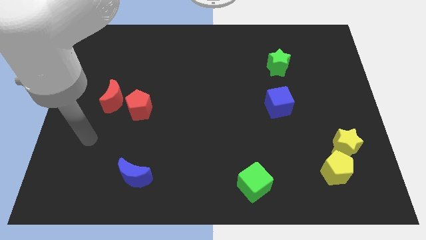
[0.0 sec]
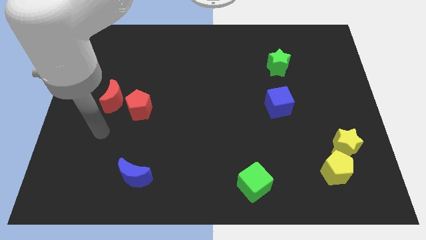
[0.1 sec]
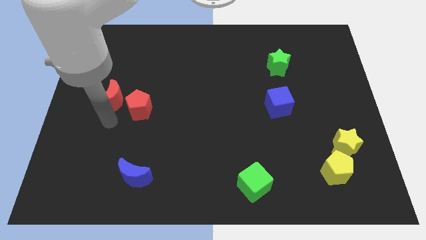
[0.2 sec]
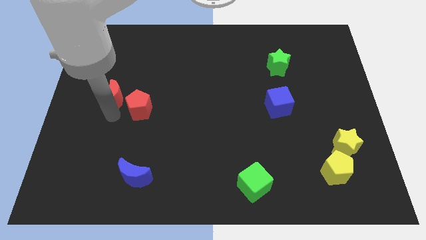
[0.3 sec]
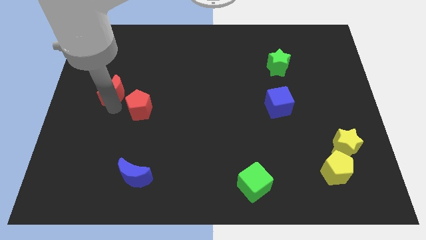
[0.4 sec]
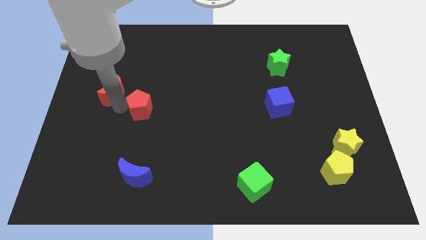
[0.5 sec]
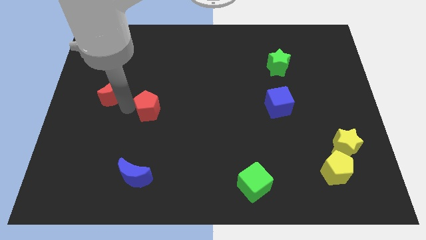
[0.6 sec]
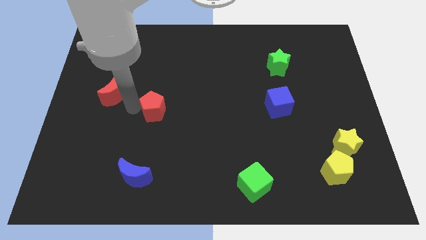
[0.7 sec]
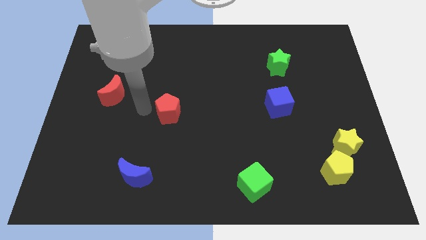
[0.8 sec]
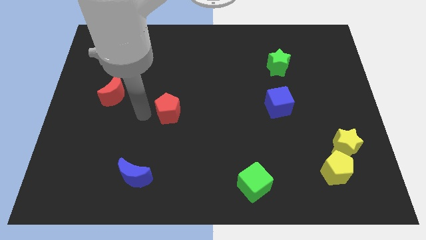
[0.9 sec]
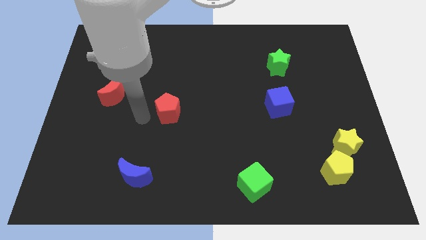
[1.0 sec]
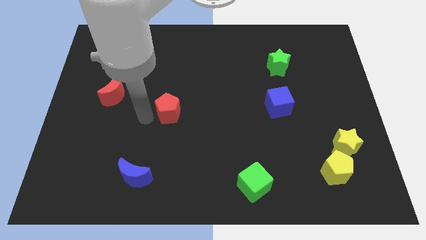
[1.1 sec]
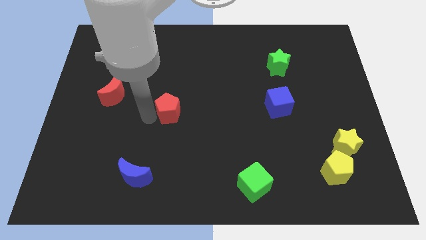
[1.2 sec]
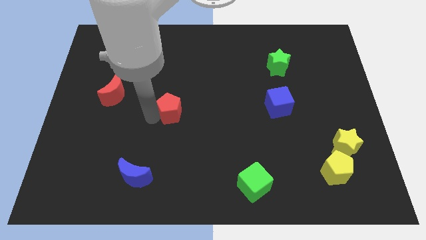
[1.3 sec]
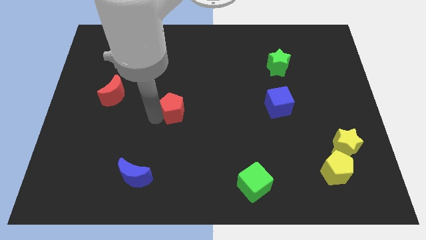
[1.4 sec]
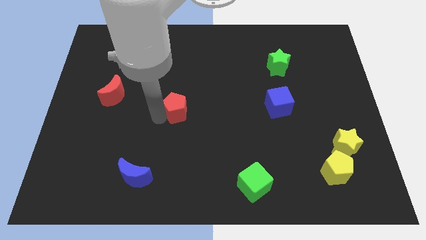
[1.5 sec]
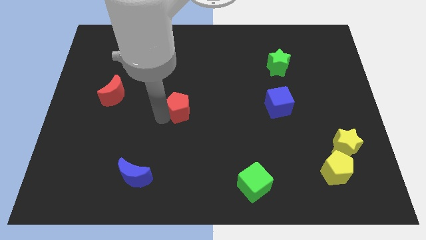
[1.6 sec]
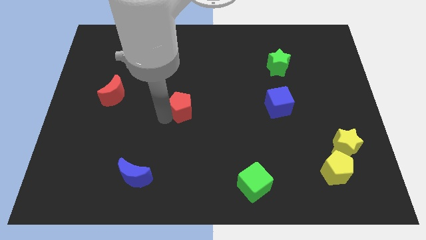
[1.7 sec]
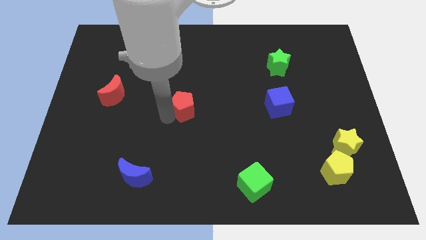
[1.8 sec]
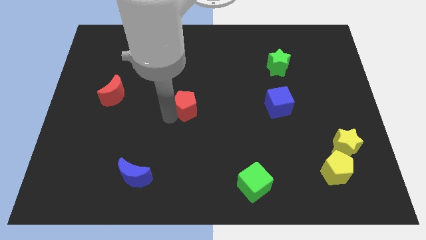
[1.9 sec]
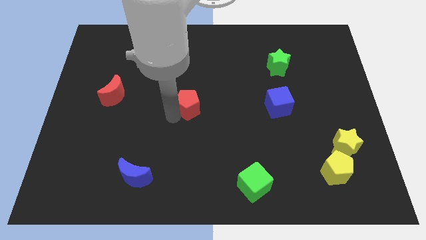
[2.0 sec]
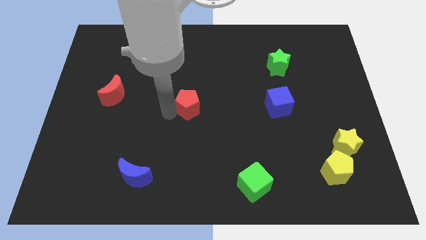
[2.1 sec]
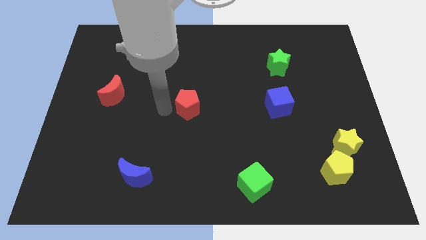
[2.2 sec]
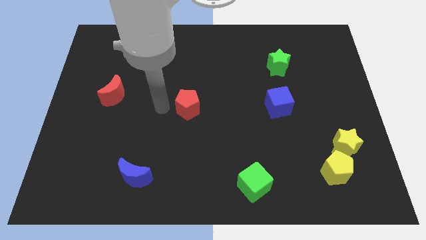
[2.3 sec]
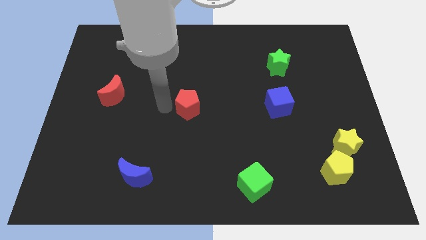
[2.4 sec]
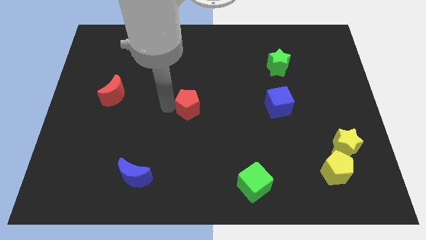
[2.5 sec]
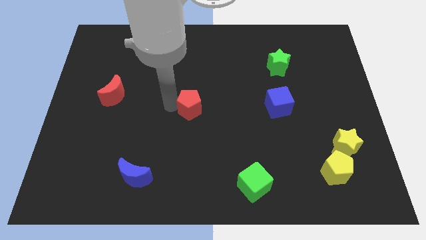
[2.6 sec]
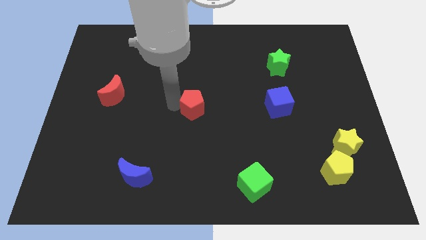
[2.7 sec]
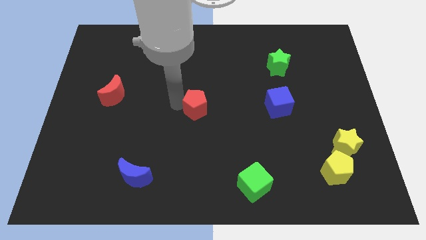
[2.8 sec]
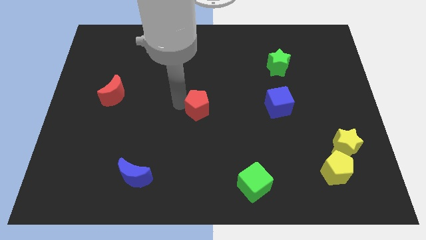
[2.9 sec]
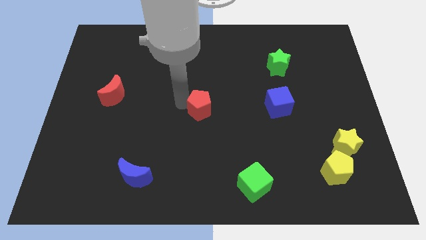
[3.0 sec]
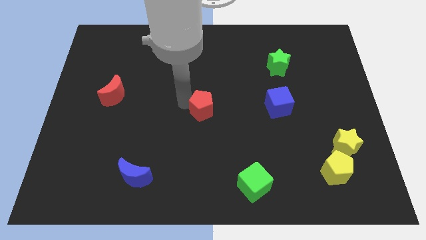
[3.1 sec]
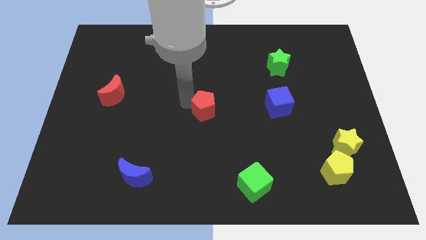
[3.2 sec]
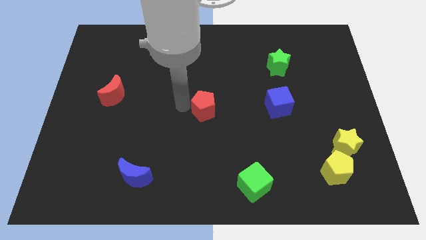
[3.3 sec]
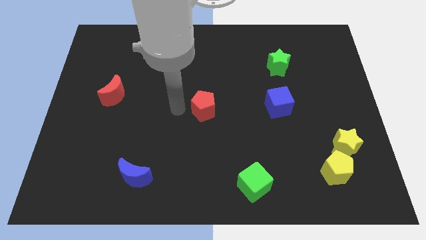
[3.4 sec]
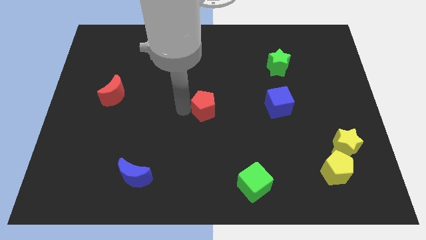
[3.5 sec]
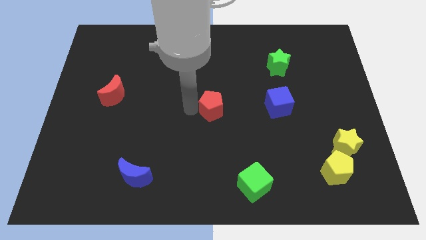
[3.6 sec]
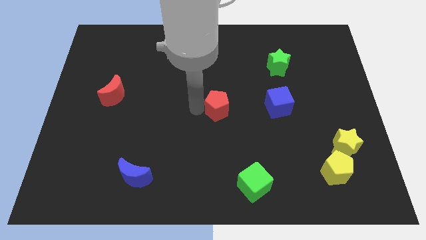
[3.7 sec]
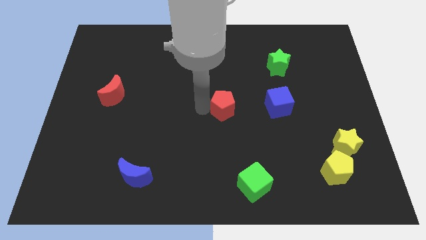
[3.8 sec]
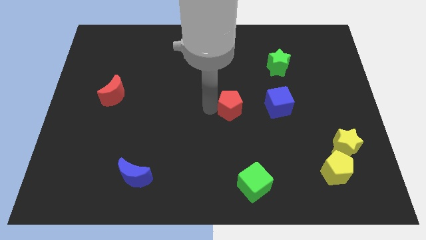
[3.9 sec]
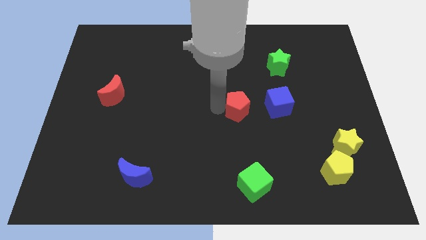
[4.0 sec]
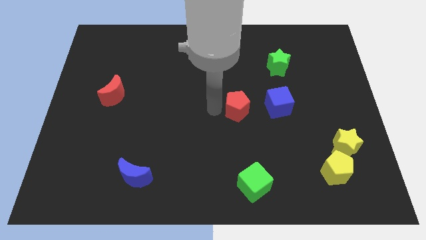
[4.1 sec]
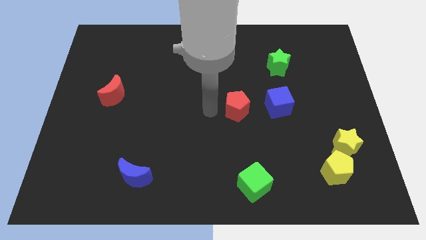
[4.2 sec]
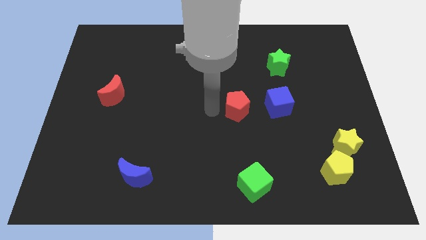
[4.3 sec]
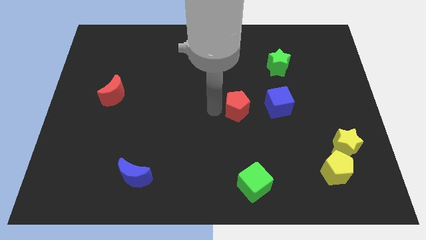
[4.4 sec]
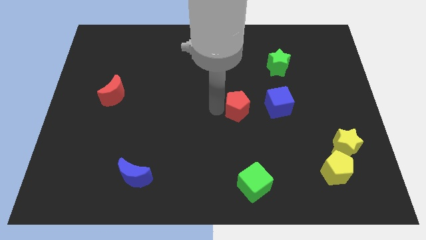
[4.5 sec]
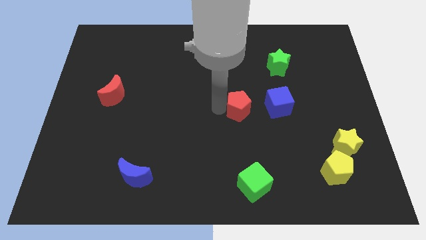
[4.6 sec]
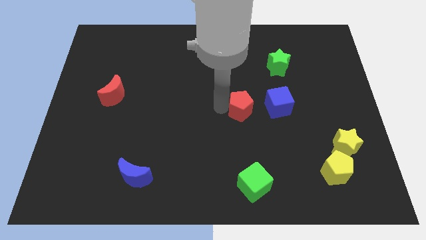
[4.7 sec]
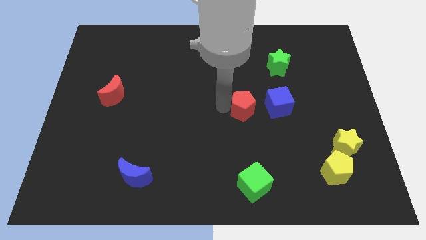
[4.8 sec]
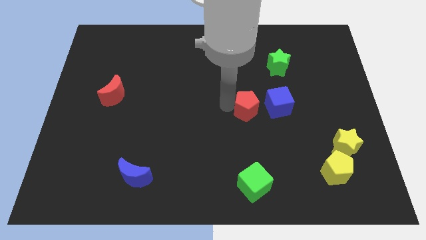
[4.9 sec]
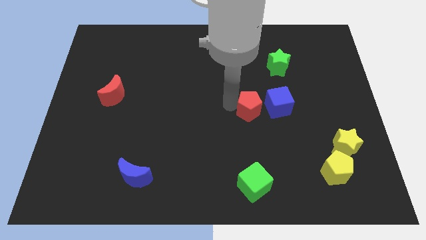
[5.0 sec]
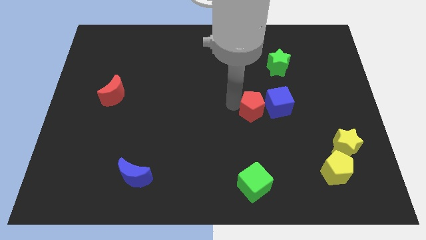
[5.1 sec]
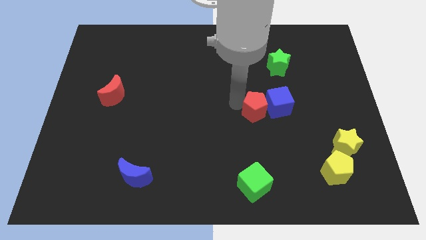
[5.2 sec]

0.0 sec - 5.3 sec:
move the red pentagon towards the blue cube

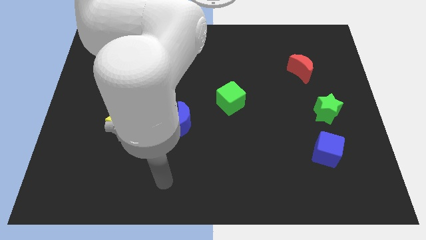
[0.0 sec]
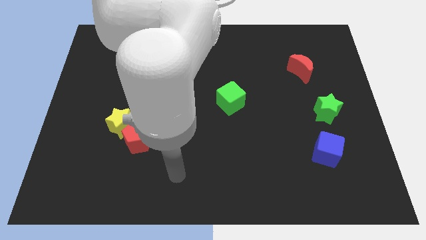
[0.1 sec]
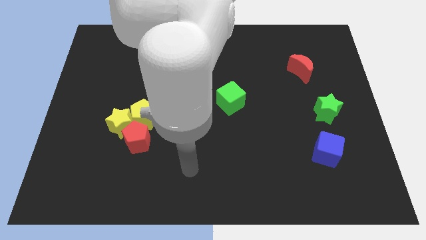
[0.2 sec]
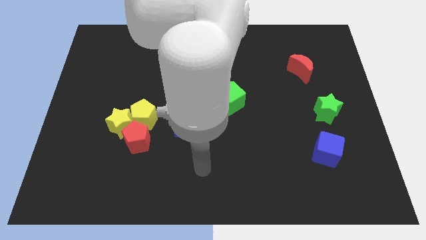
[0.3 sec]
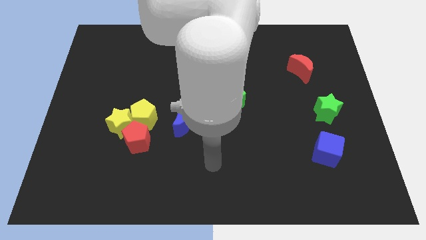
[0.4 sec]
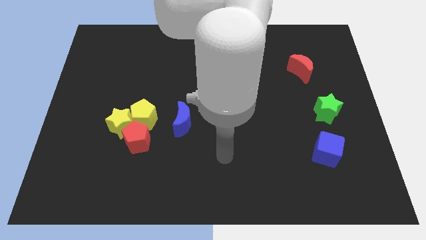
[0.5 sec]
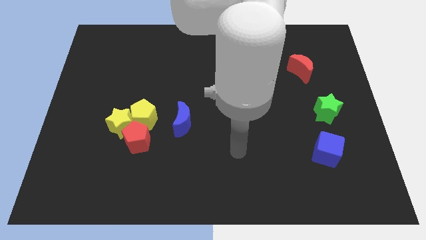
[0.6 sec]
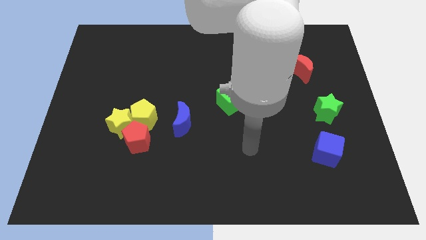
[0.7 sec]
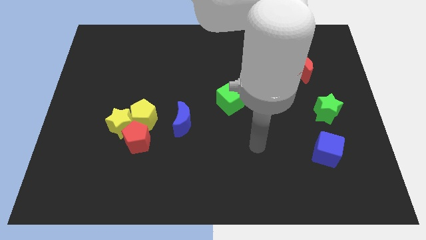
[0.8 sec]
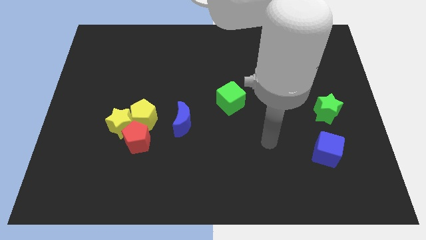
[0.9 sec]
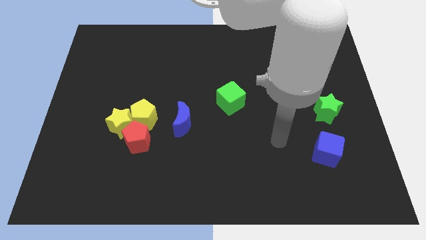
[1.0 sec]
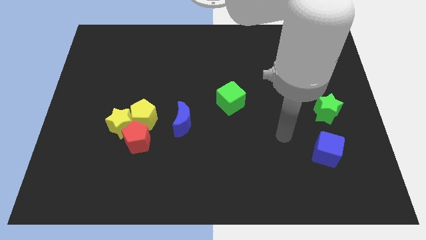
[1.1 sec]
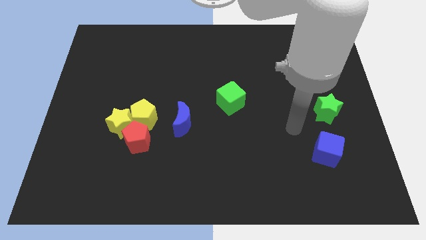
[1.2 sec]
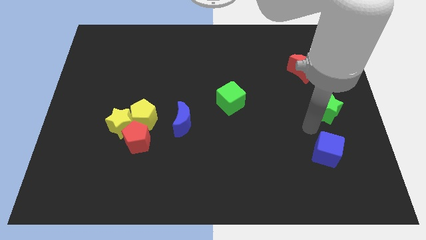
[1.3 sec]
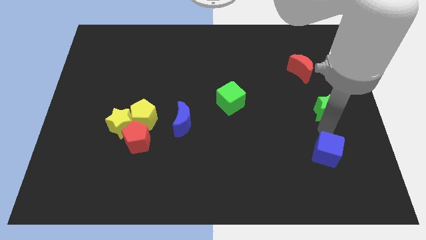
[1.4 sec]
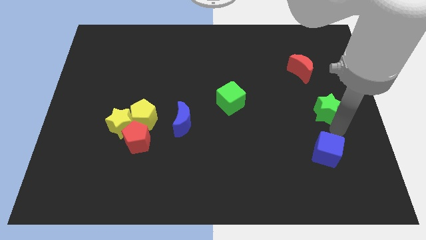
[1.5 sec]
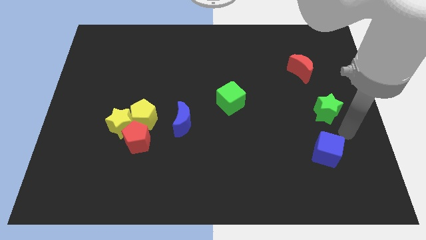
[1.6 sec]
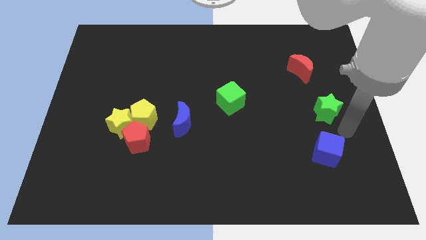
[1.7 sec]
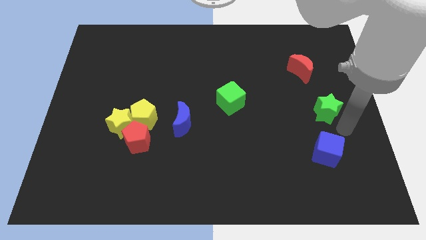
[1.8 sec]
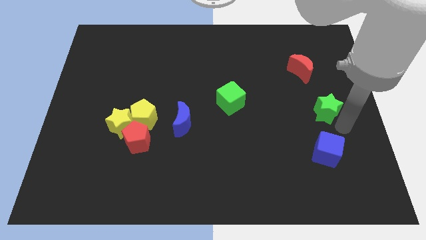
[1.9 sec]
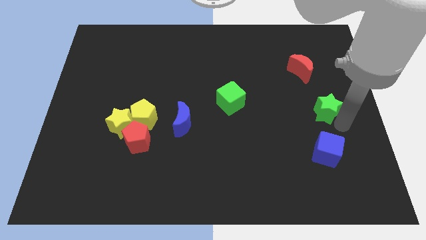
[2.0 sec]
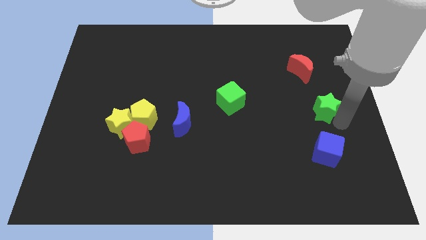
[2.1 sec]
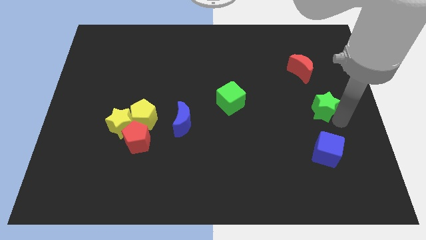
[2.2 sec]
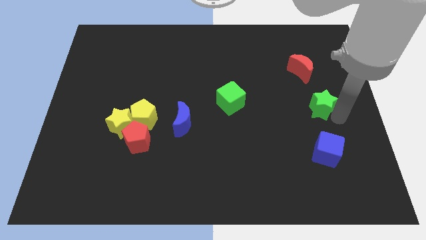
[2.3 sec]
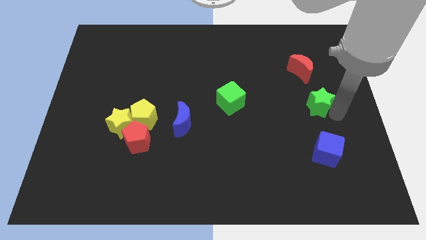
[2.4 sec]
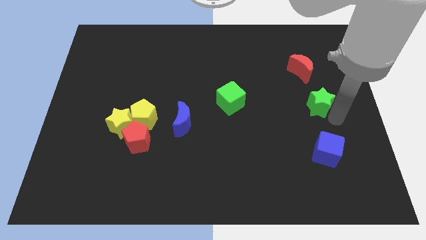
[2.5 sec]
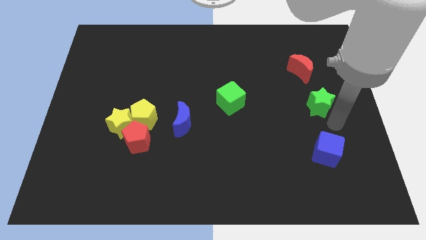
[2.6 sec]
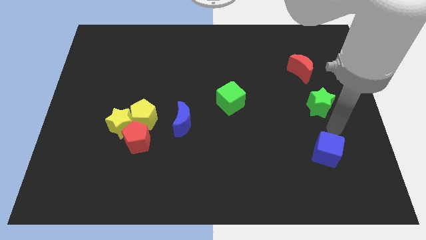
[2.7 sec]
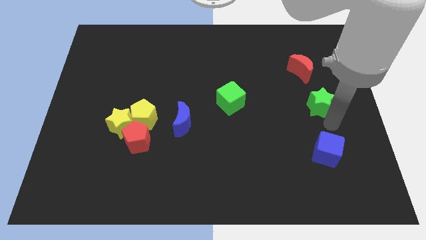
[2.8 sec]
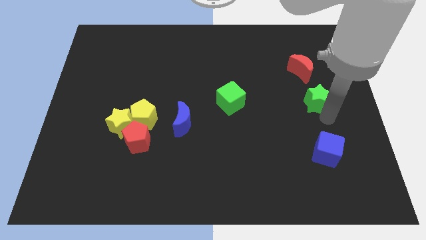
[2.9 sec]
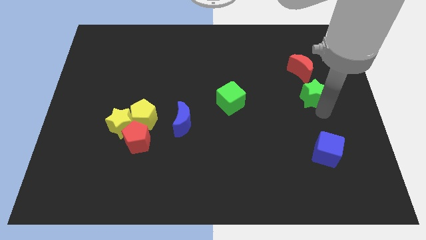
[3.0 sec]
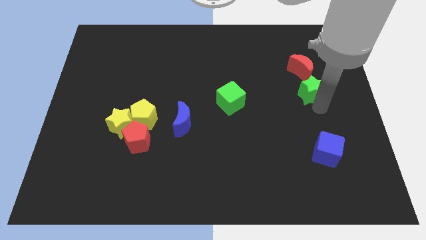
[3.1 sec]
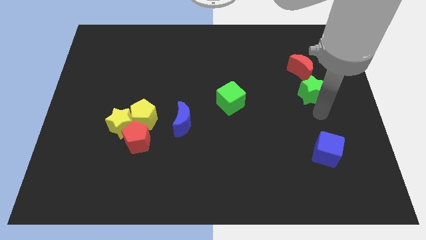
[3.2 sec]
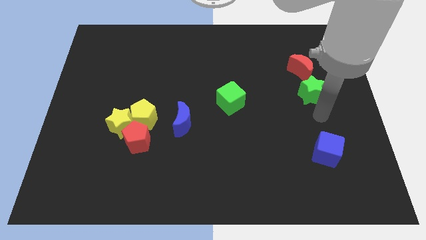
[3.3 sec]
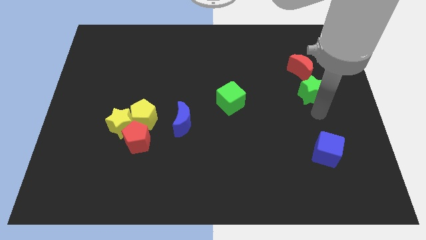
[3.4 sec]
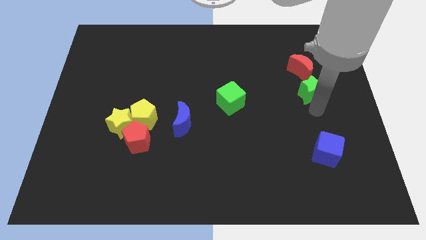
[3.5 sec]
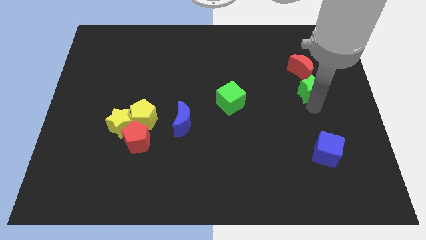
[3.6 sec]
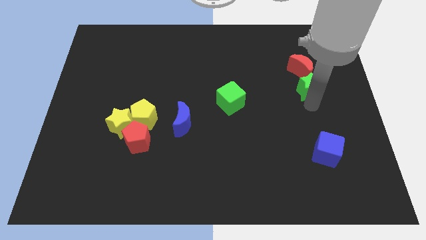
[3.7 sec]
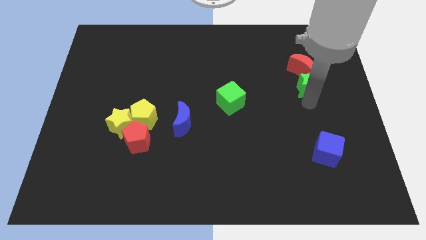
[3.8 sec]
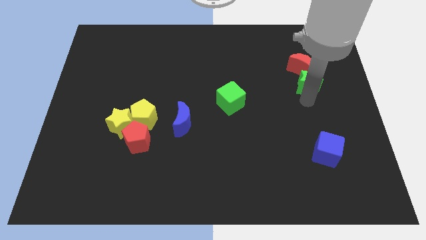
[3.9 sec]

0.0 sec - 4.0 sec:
push the green star to the red moon
